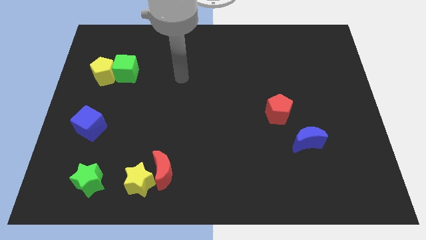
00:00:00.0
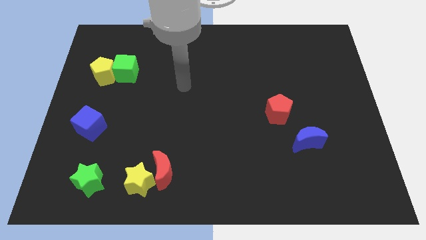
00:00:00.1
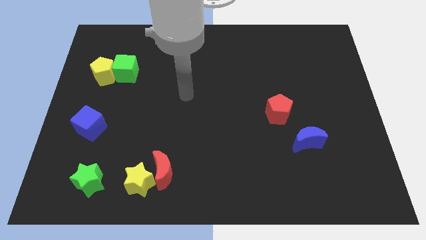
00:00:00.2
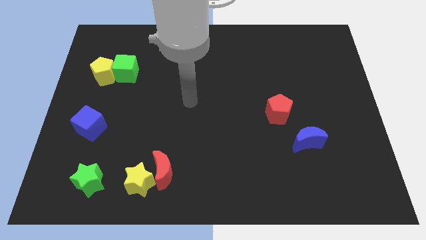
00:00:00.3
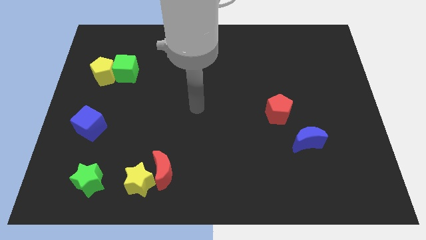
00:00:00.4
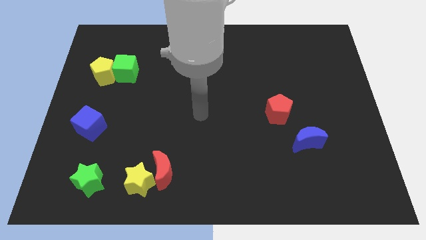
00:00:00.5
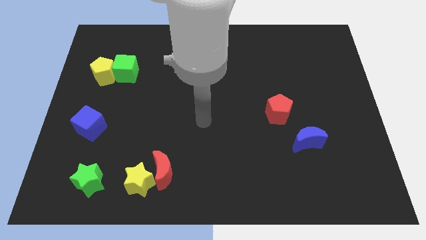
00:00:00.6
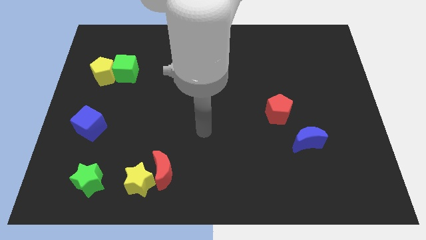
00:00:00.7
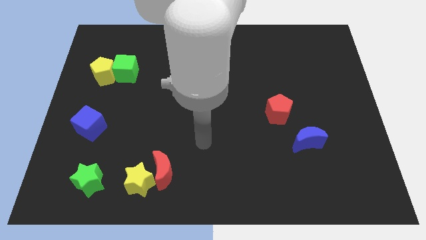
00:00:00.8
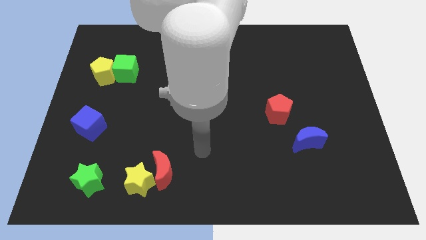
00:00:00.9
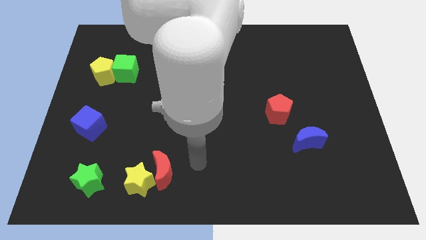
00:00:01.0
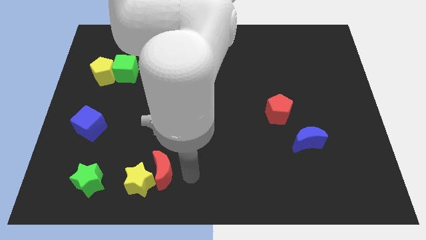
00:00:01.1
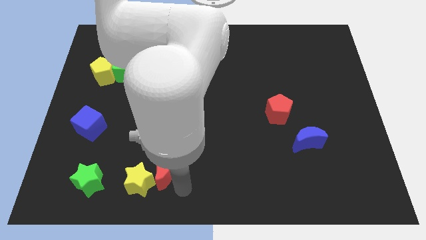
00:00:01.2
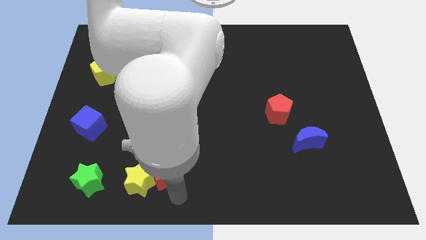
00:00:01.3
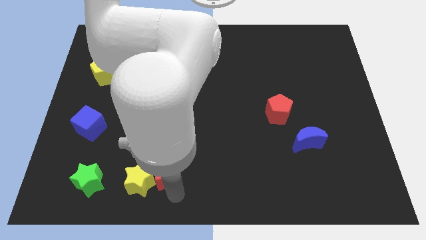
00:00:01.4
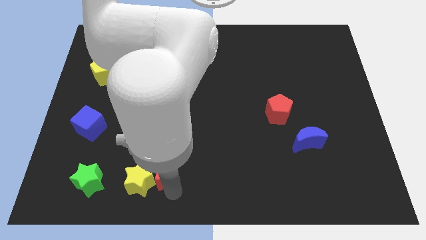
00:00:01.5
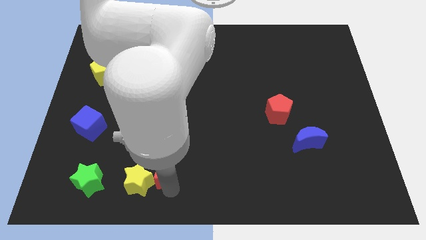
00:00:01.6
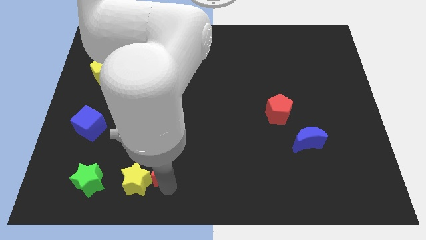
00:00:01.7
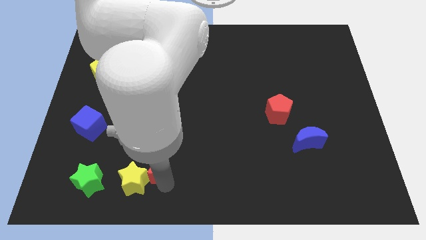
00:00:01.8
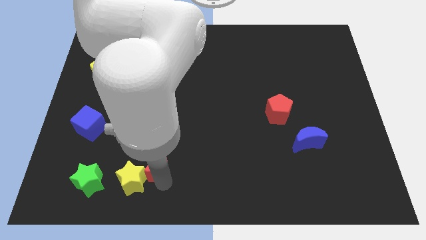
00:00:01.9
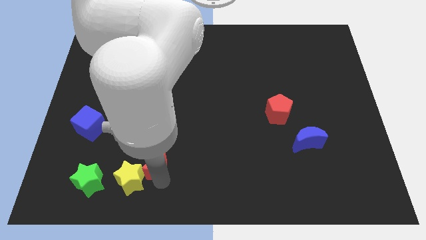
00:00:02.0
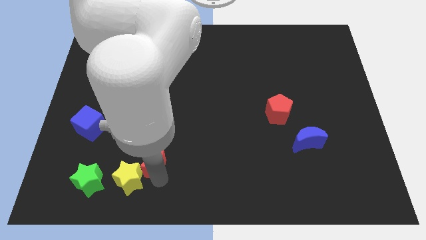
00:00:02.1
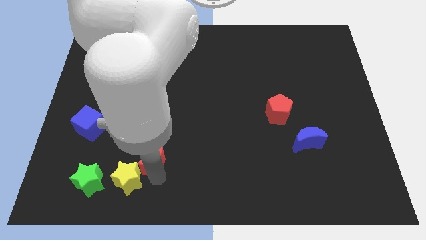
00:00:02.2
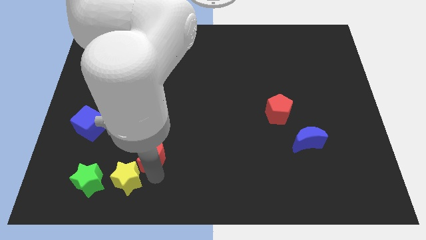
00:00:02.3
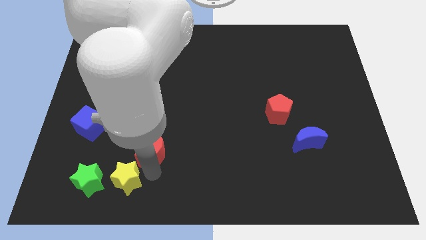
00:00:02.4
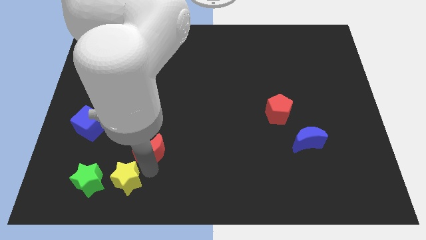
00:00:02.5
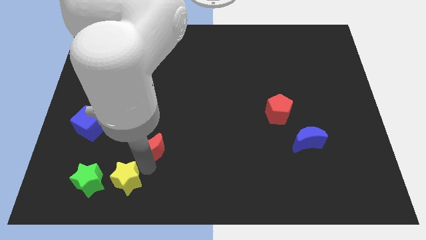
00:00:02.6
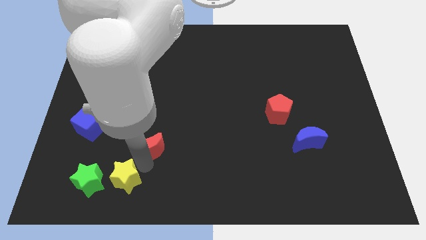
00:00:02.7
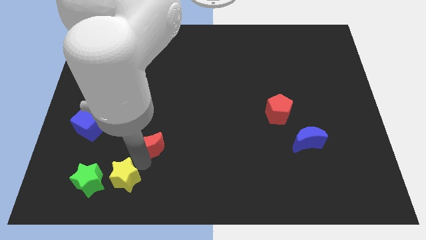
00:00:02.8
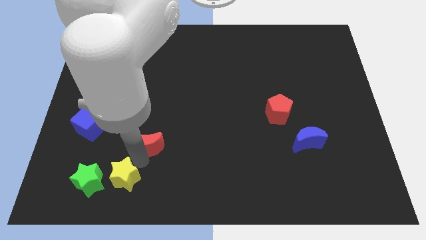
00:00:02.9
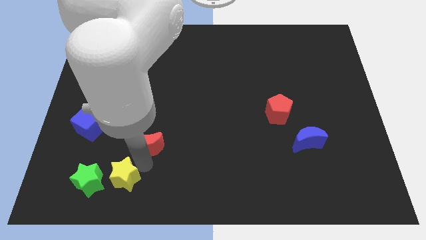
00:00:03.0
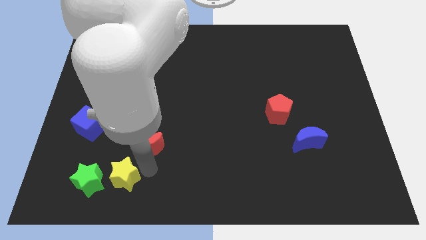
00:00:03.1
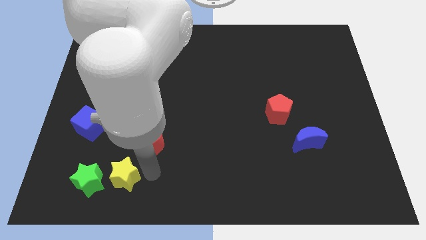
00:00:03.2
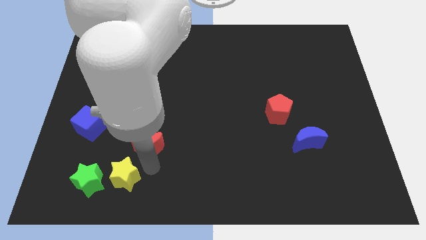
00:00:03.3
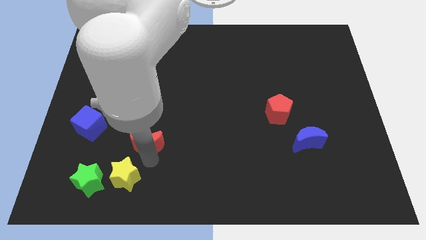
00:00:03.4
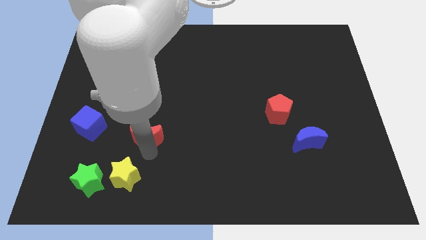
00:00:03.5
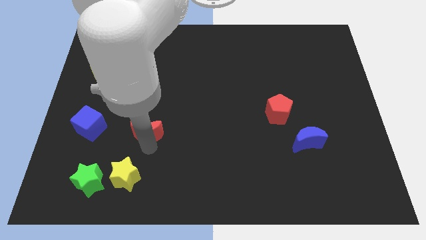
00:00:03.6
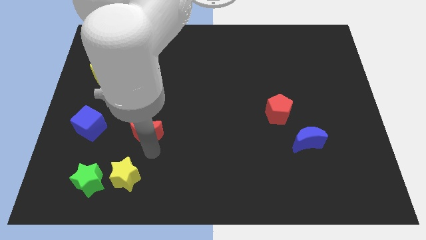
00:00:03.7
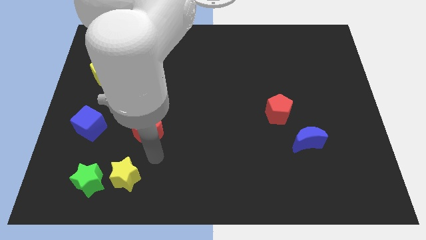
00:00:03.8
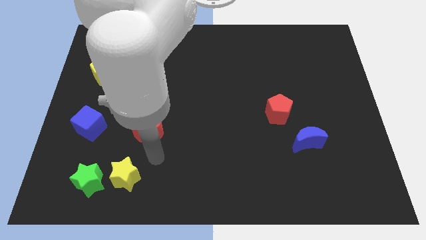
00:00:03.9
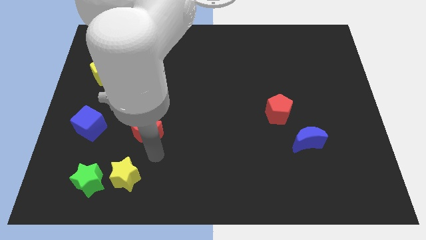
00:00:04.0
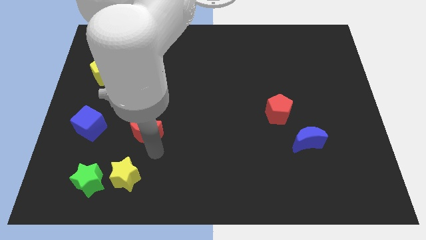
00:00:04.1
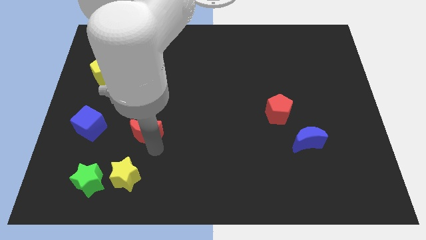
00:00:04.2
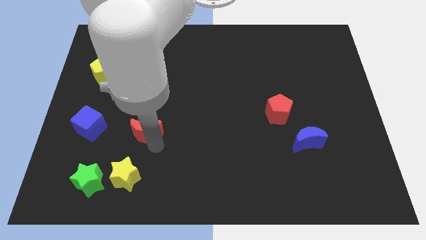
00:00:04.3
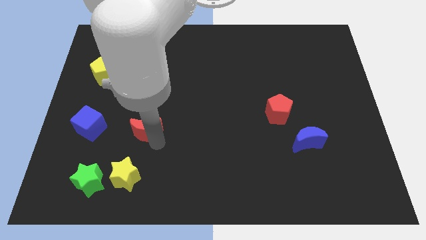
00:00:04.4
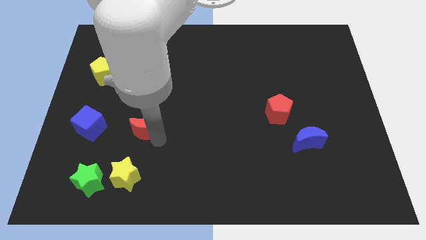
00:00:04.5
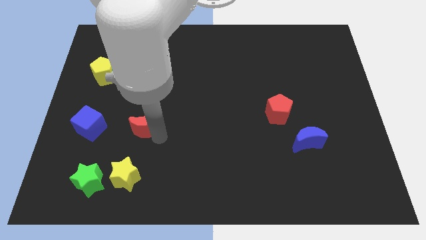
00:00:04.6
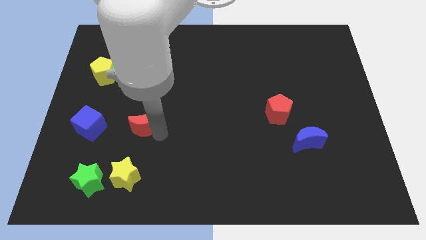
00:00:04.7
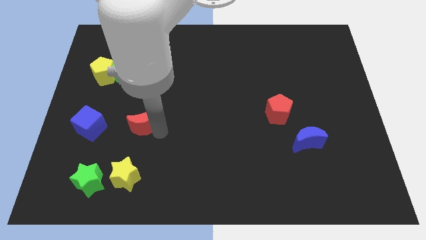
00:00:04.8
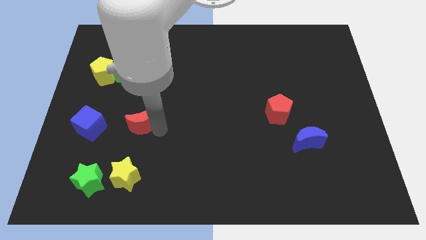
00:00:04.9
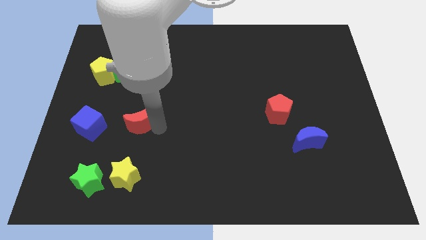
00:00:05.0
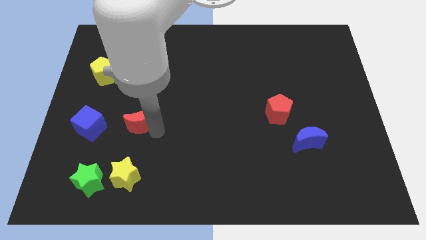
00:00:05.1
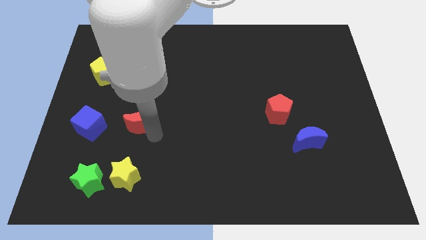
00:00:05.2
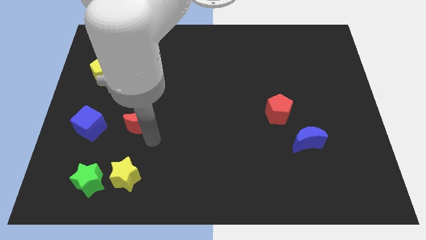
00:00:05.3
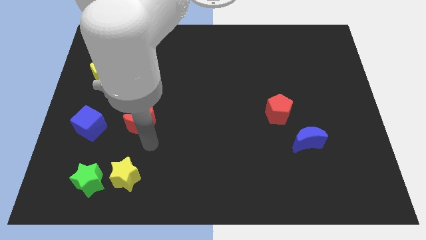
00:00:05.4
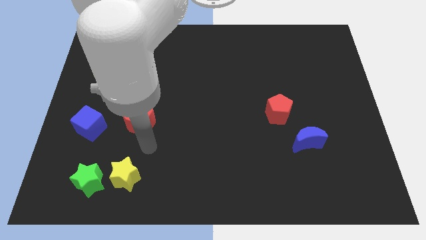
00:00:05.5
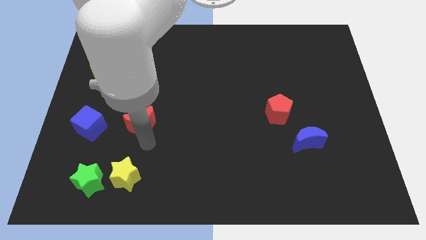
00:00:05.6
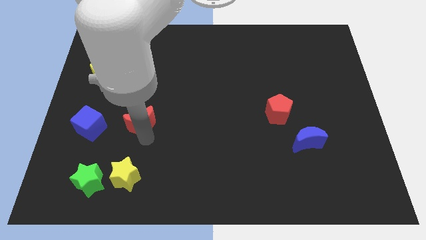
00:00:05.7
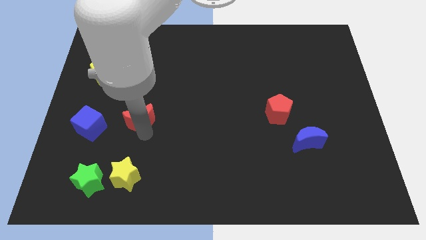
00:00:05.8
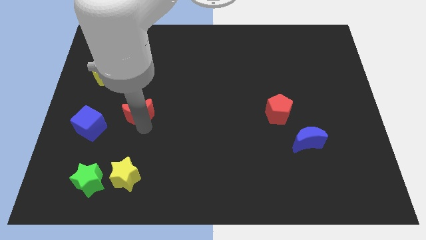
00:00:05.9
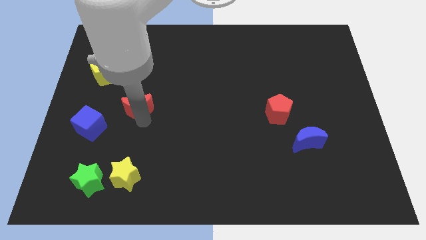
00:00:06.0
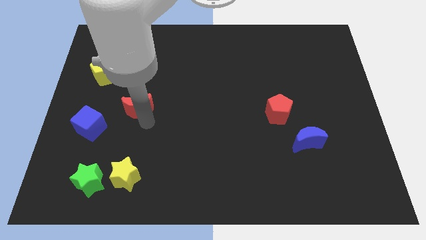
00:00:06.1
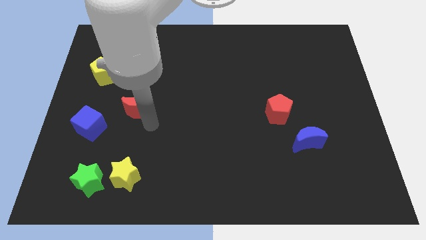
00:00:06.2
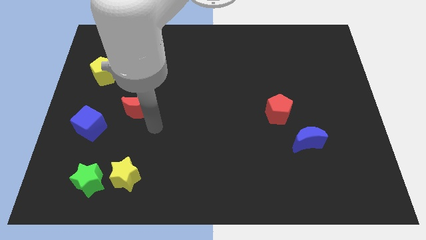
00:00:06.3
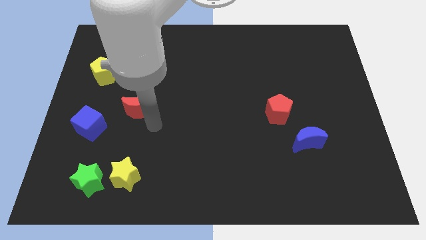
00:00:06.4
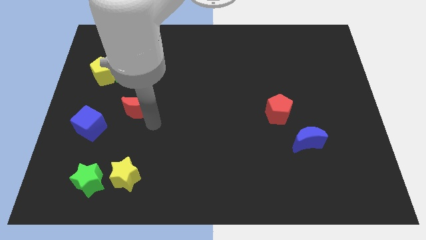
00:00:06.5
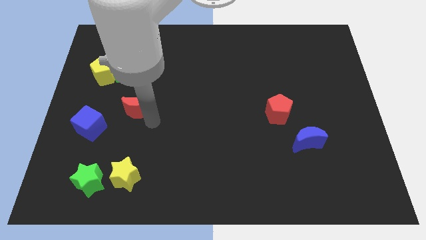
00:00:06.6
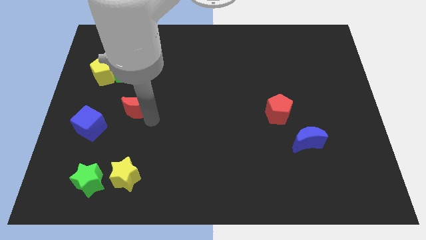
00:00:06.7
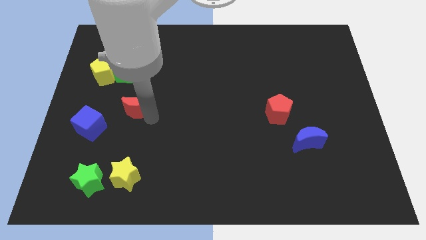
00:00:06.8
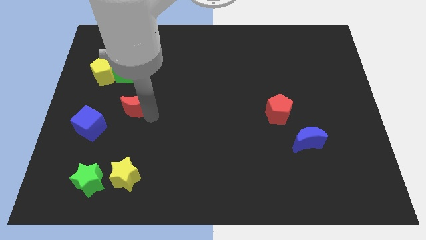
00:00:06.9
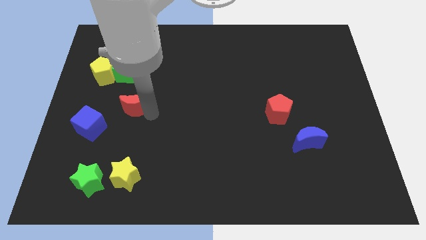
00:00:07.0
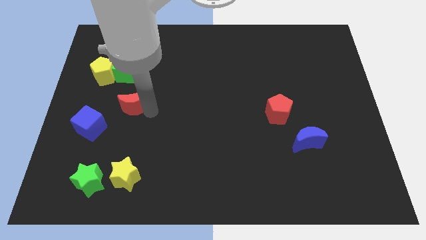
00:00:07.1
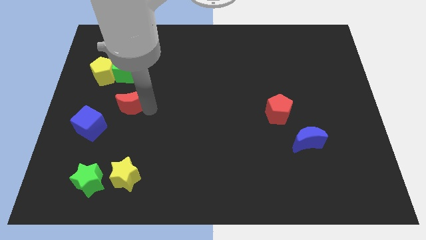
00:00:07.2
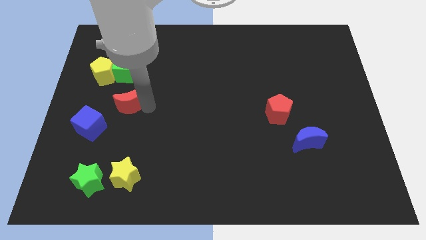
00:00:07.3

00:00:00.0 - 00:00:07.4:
slide the red moon diagonally down and to the right of the yellow pentagon
